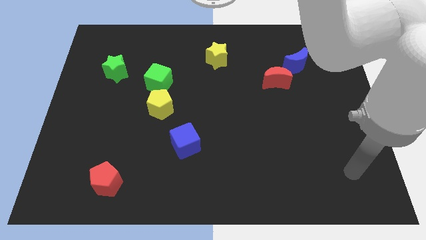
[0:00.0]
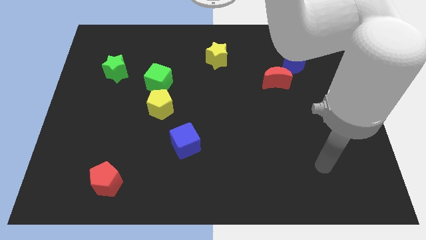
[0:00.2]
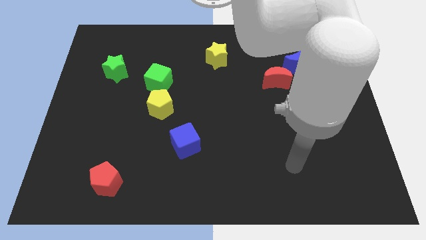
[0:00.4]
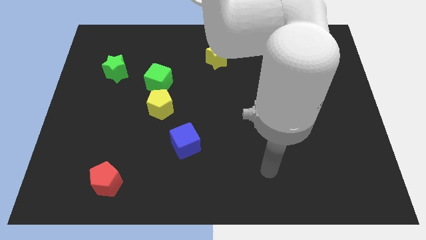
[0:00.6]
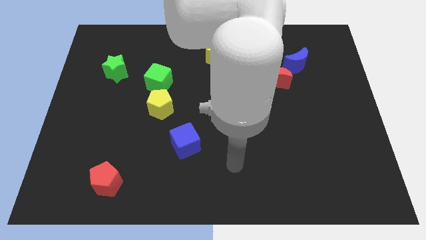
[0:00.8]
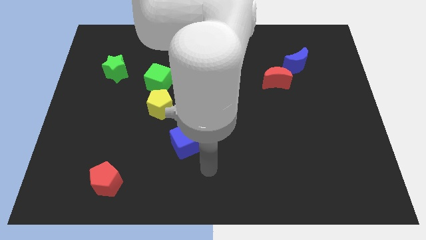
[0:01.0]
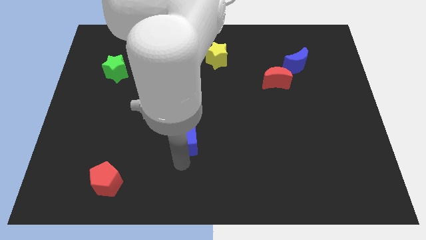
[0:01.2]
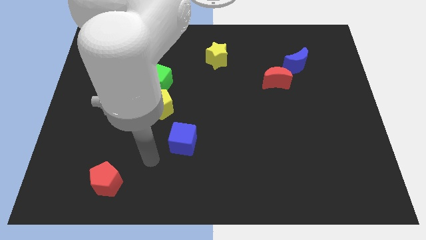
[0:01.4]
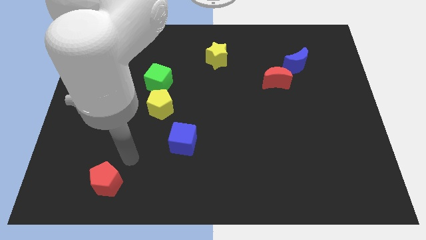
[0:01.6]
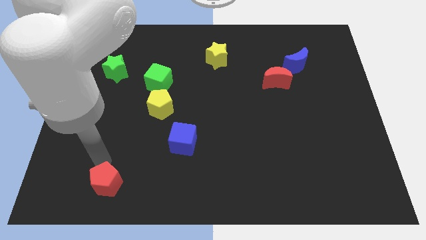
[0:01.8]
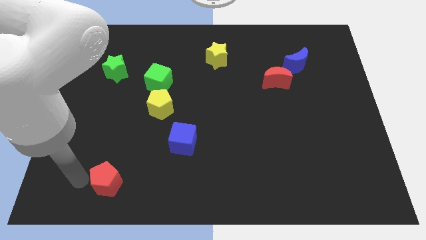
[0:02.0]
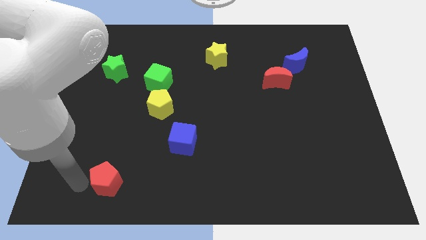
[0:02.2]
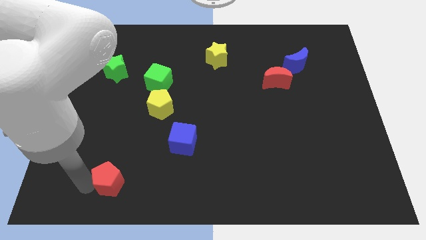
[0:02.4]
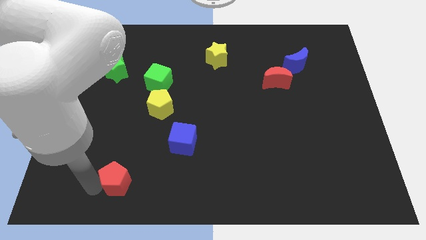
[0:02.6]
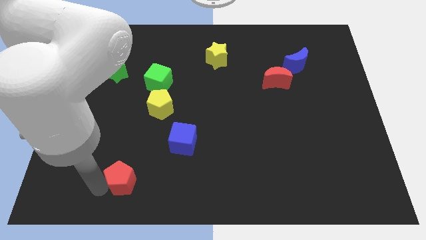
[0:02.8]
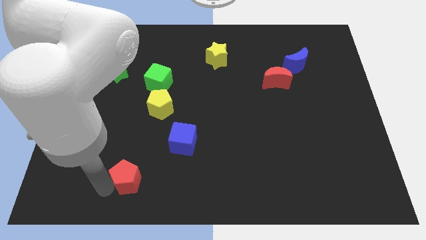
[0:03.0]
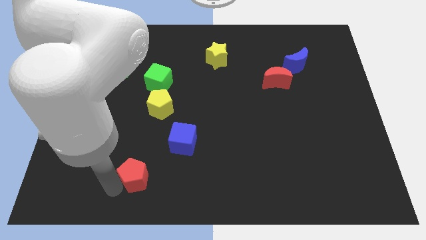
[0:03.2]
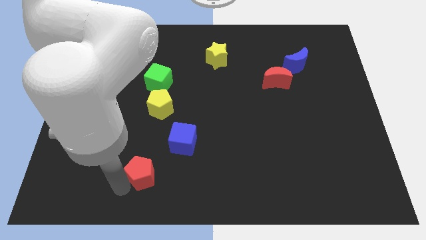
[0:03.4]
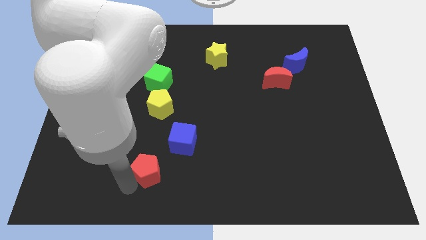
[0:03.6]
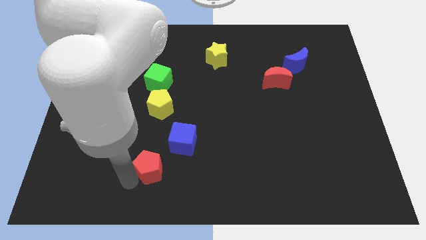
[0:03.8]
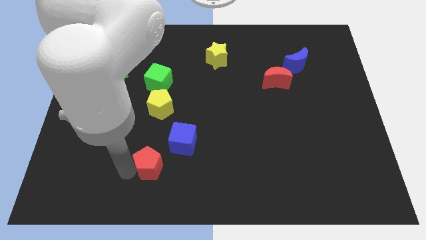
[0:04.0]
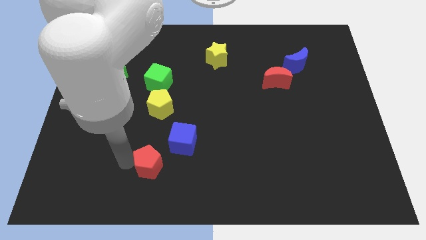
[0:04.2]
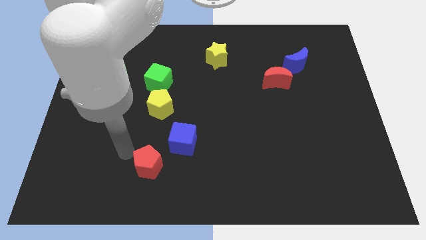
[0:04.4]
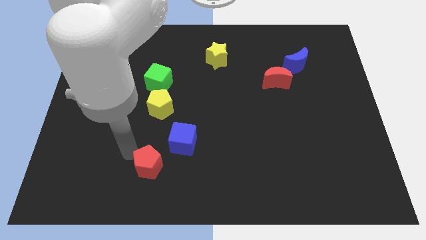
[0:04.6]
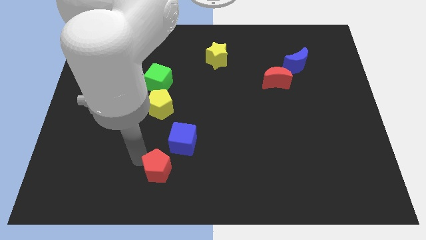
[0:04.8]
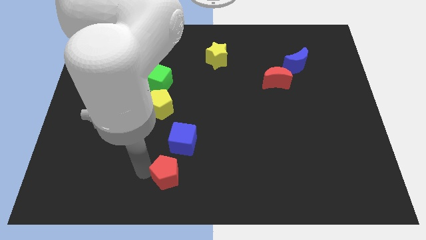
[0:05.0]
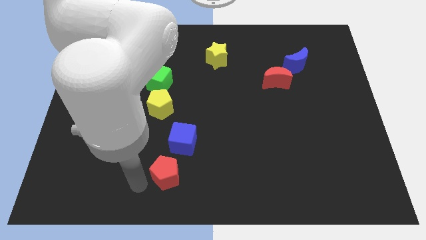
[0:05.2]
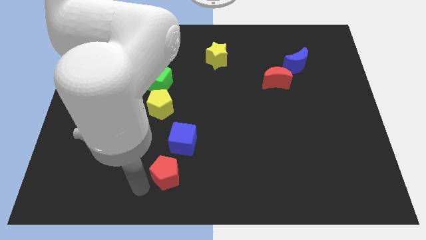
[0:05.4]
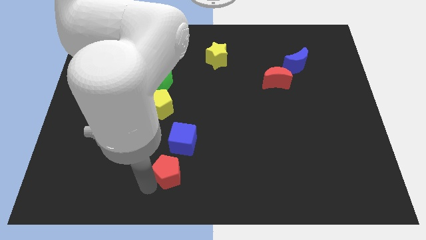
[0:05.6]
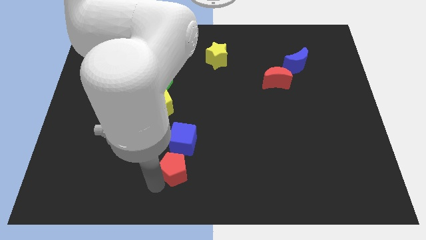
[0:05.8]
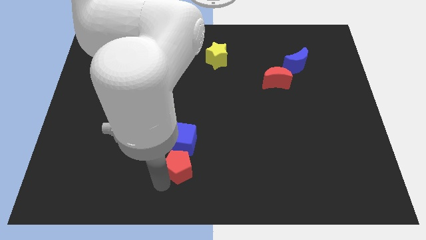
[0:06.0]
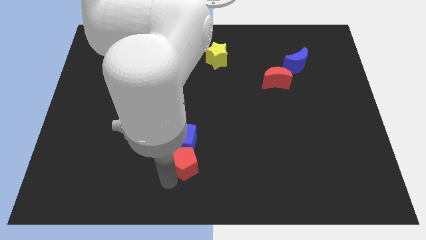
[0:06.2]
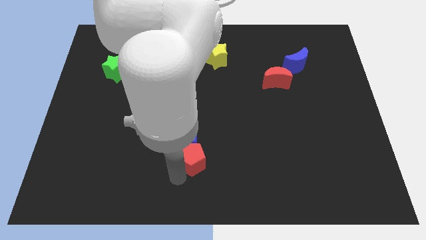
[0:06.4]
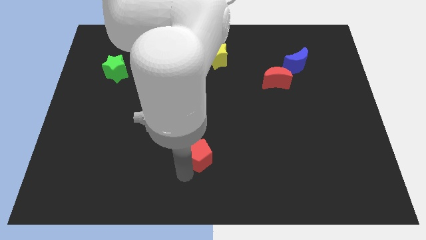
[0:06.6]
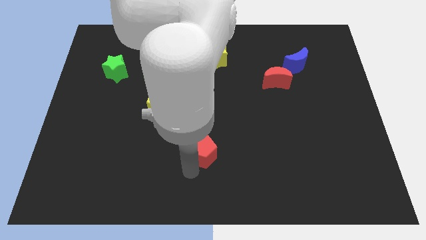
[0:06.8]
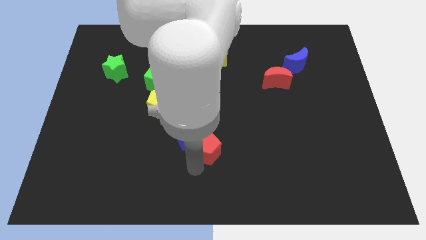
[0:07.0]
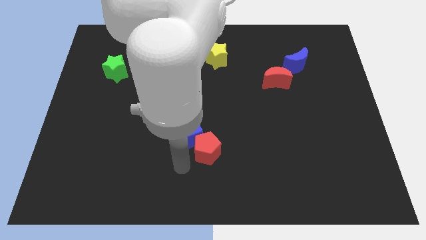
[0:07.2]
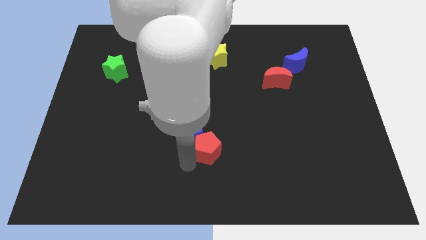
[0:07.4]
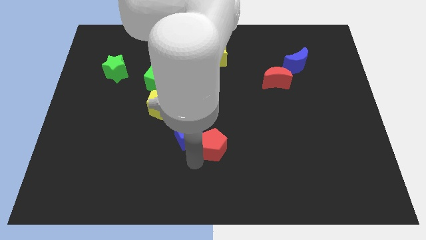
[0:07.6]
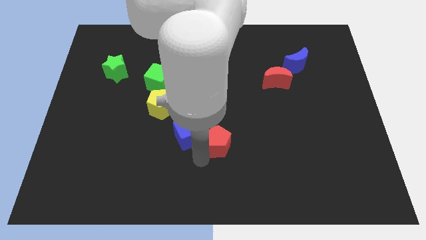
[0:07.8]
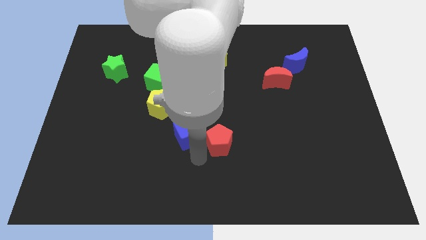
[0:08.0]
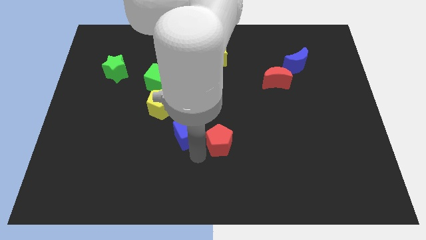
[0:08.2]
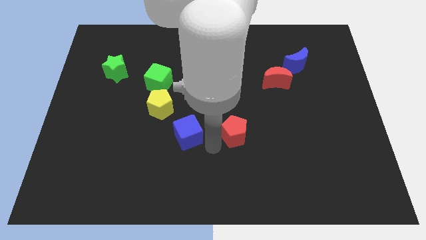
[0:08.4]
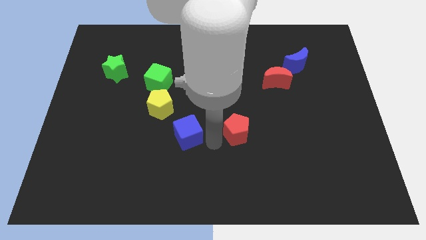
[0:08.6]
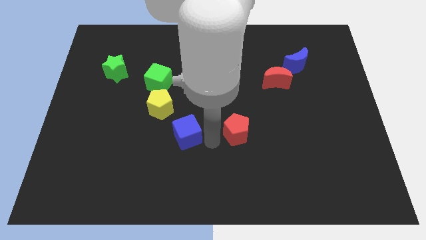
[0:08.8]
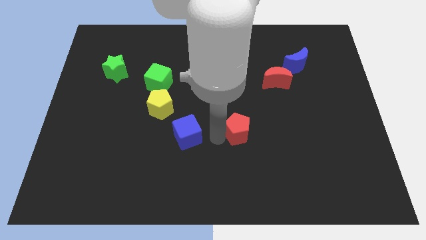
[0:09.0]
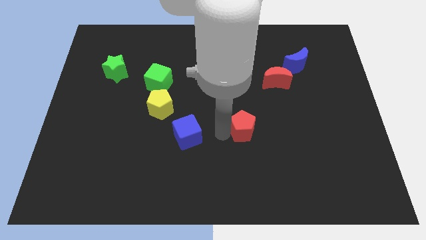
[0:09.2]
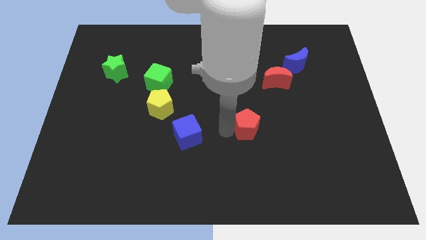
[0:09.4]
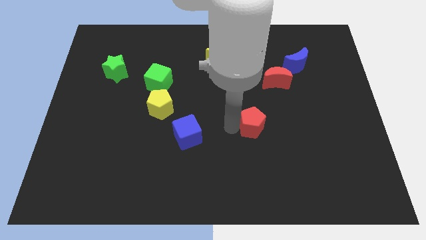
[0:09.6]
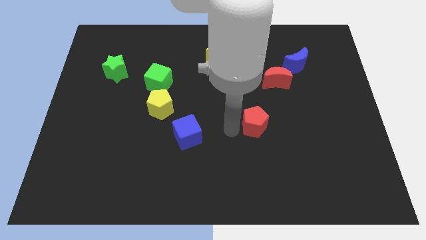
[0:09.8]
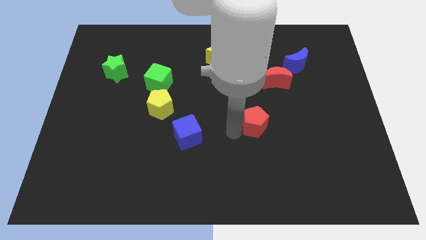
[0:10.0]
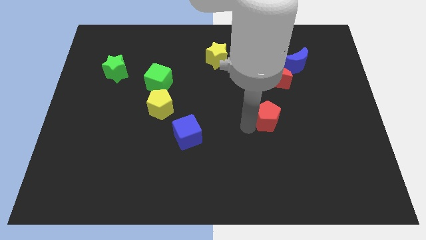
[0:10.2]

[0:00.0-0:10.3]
put the red pentagon to the bottom side of the red moon

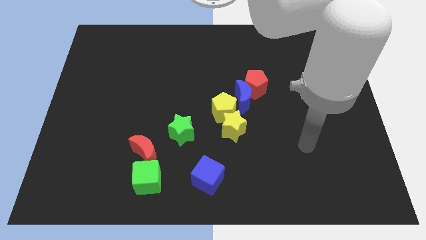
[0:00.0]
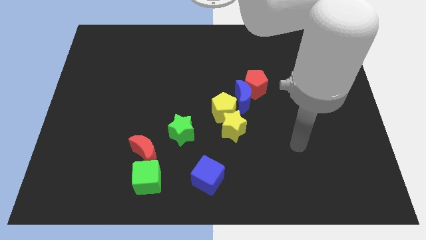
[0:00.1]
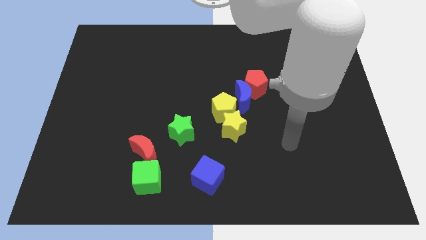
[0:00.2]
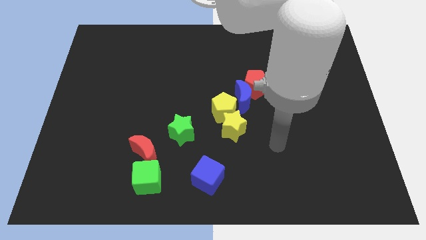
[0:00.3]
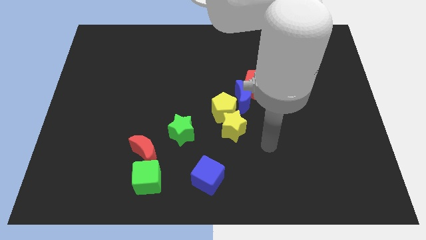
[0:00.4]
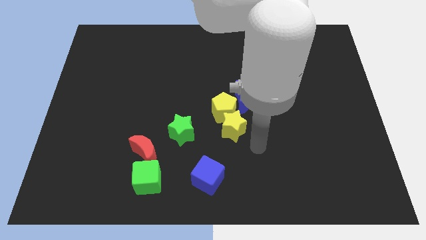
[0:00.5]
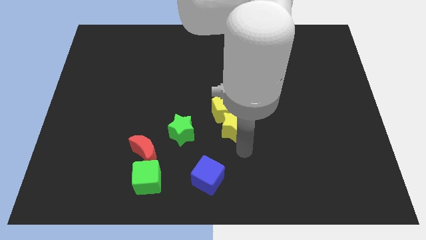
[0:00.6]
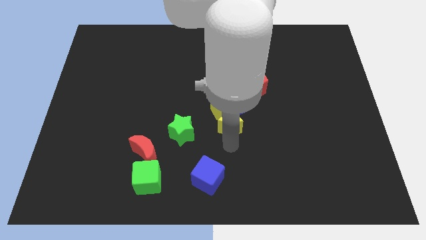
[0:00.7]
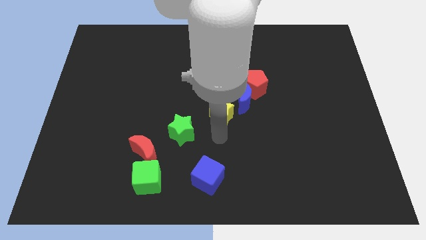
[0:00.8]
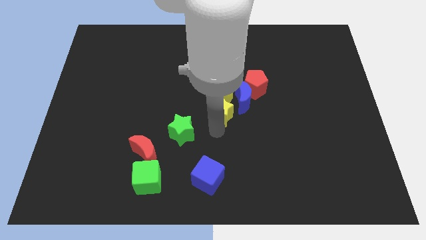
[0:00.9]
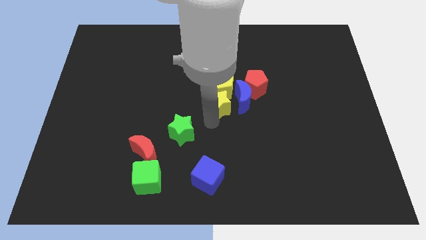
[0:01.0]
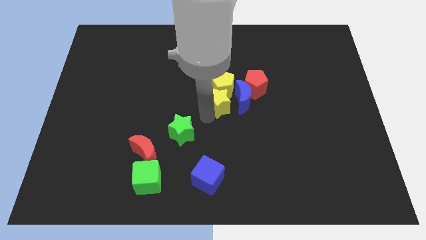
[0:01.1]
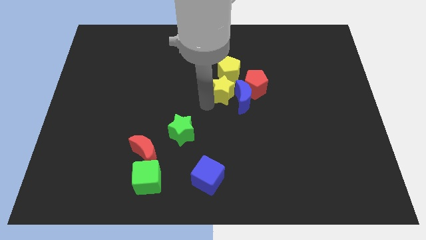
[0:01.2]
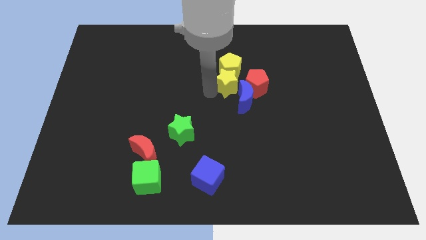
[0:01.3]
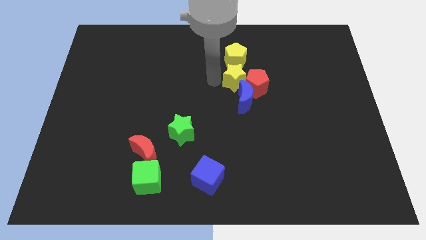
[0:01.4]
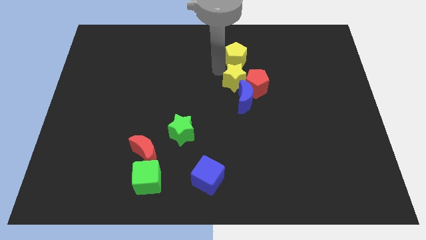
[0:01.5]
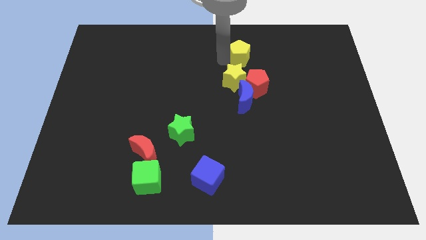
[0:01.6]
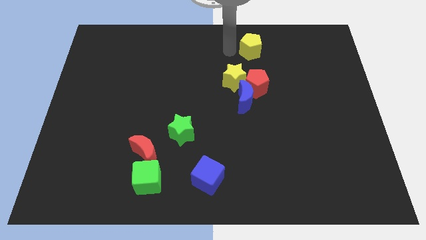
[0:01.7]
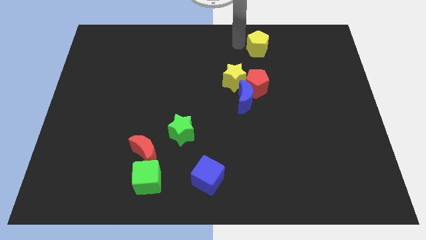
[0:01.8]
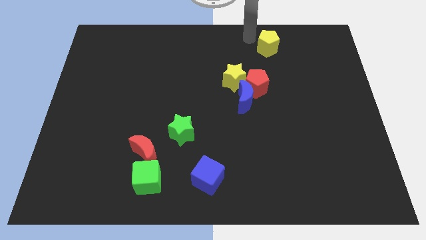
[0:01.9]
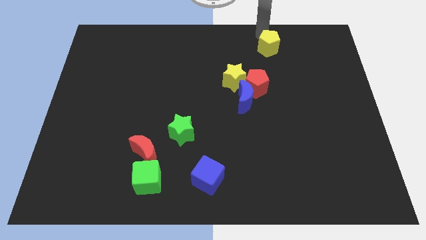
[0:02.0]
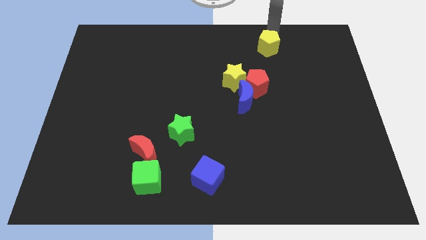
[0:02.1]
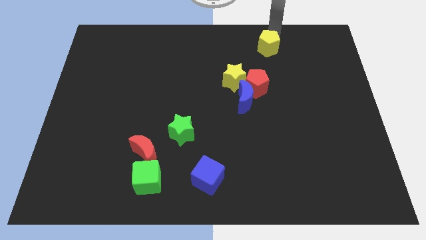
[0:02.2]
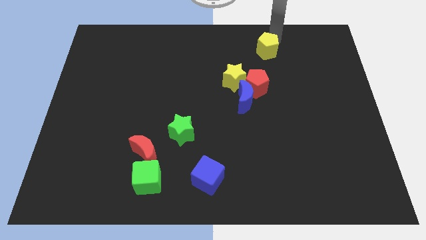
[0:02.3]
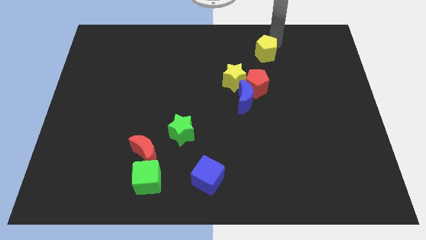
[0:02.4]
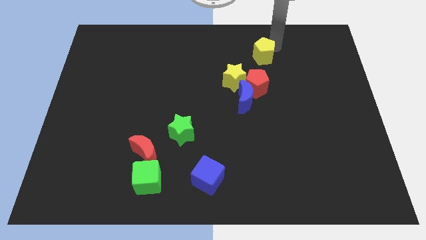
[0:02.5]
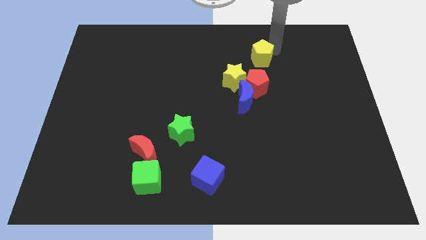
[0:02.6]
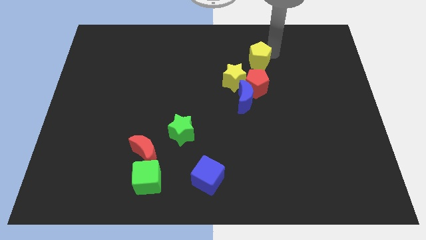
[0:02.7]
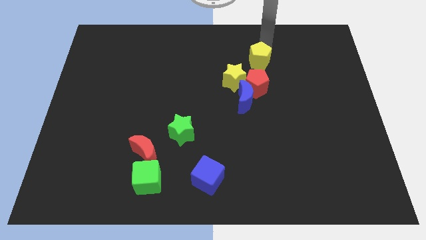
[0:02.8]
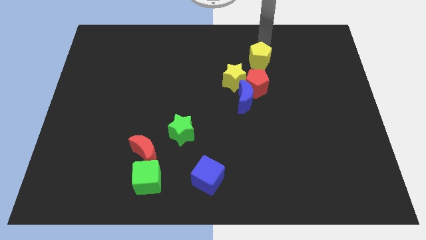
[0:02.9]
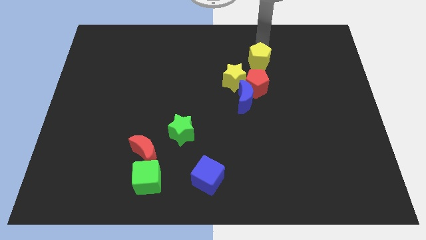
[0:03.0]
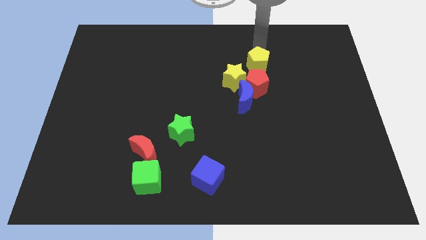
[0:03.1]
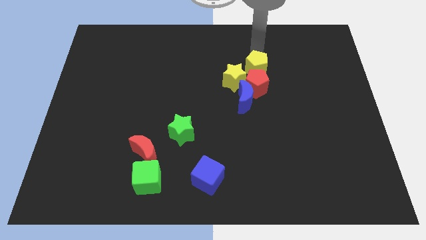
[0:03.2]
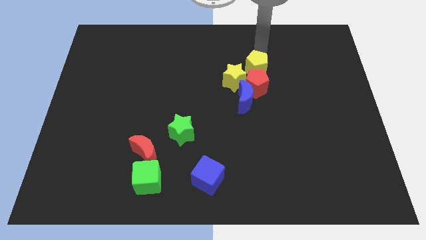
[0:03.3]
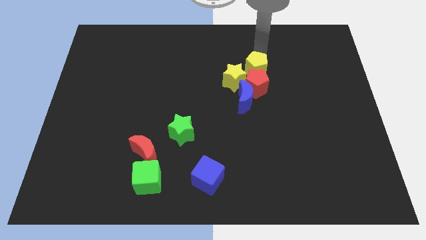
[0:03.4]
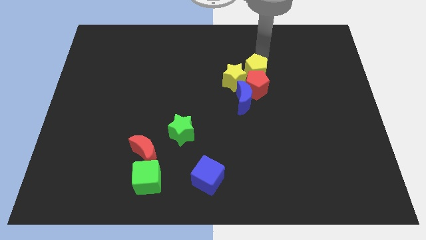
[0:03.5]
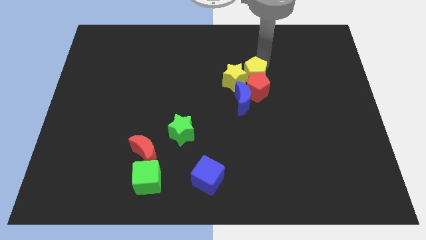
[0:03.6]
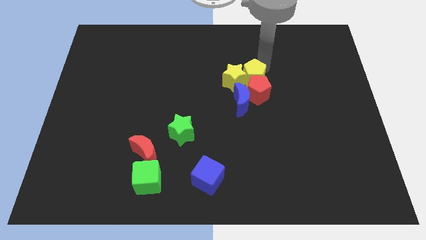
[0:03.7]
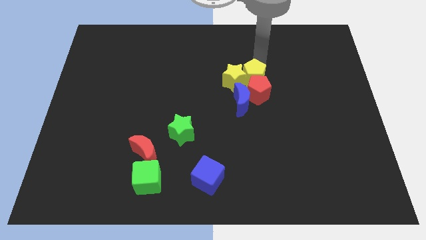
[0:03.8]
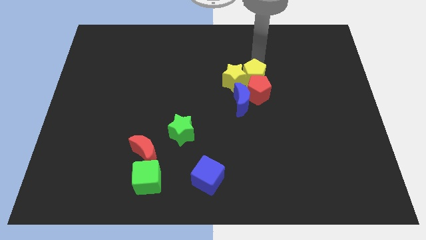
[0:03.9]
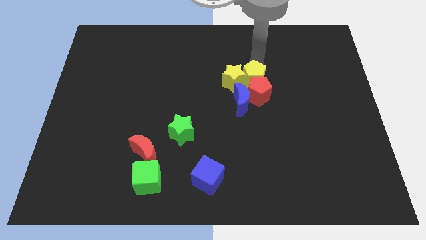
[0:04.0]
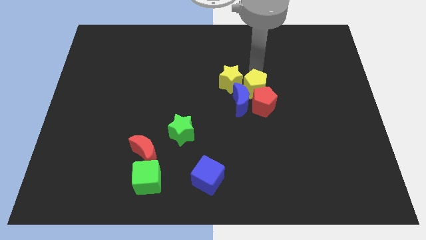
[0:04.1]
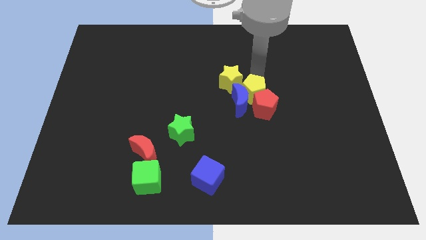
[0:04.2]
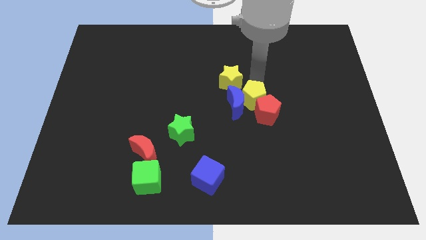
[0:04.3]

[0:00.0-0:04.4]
put the yellow pentagon to the bottom right of the blue moon
